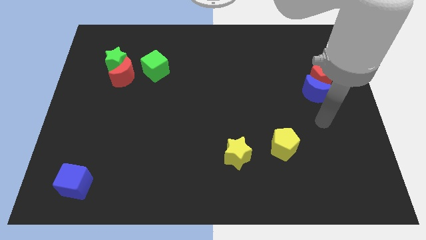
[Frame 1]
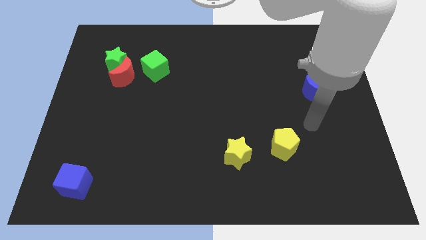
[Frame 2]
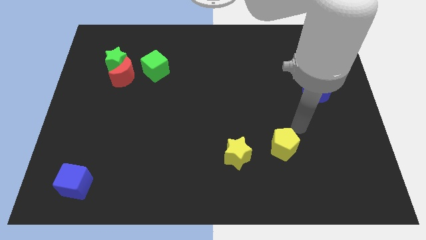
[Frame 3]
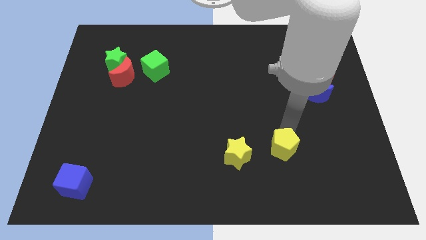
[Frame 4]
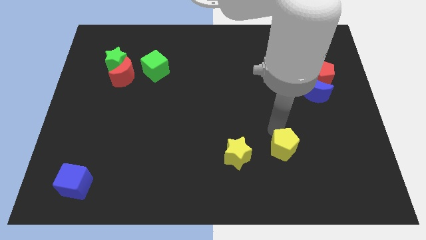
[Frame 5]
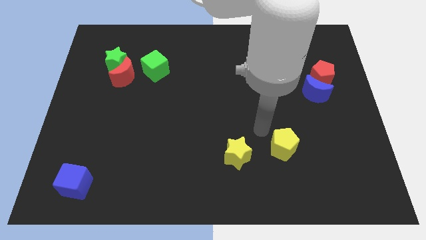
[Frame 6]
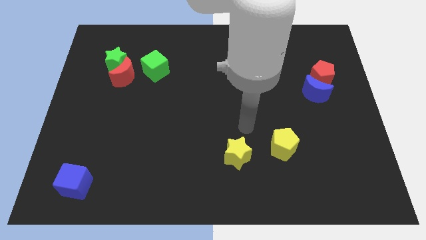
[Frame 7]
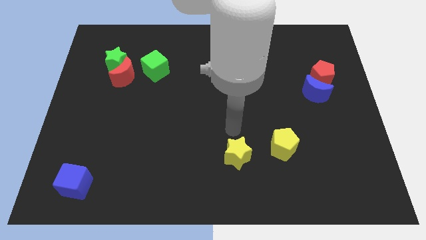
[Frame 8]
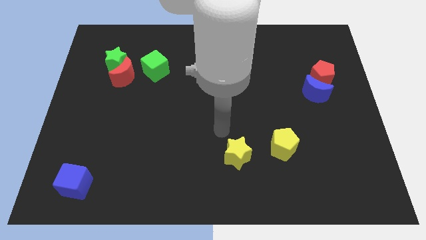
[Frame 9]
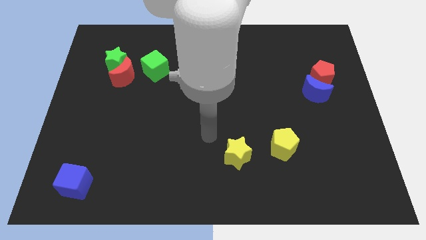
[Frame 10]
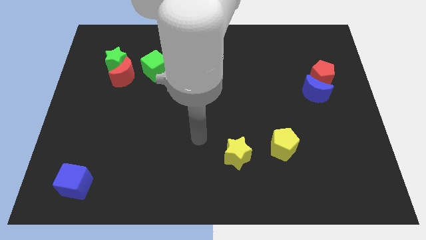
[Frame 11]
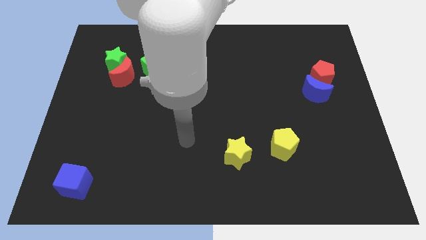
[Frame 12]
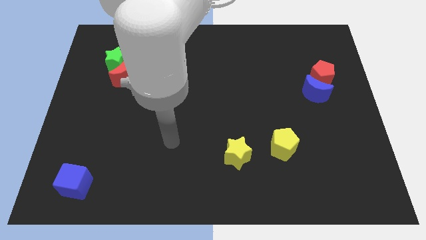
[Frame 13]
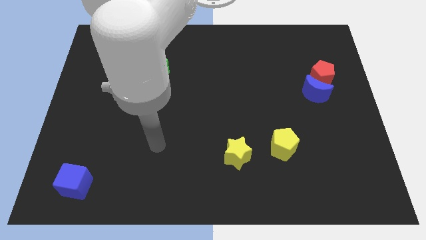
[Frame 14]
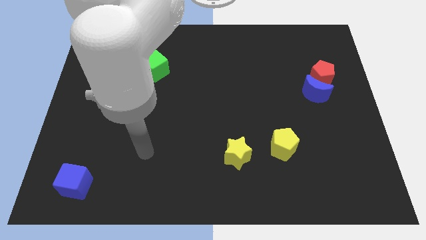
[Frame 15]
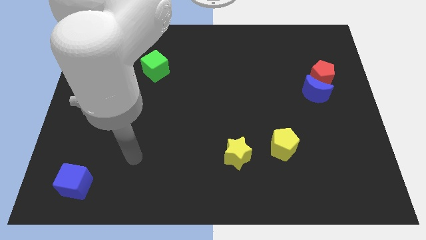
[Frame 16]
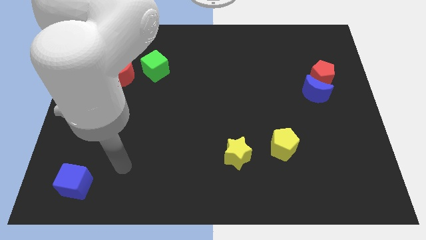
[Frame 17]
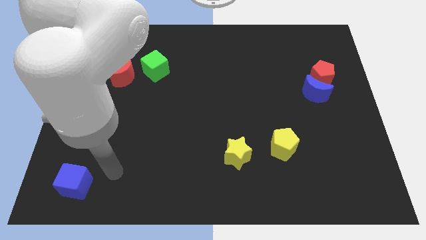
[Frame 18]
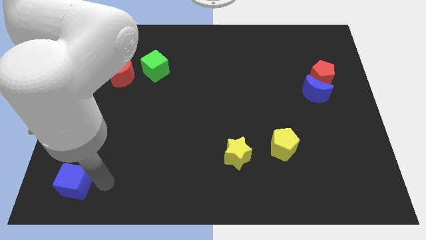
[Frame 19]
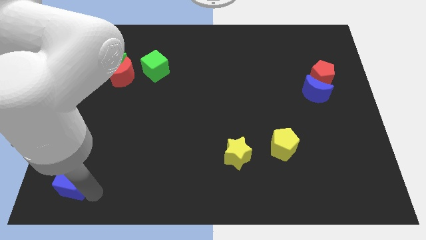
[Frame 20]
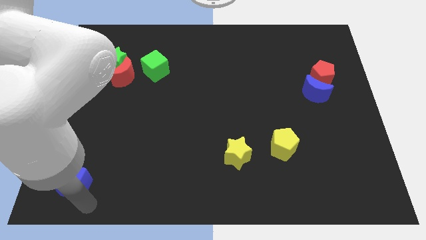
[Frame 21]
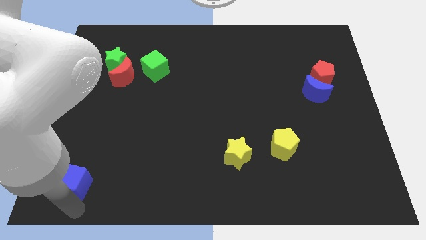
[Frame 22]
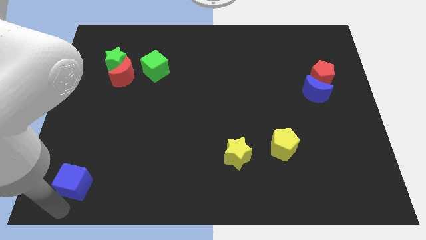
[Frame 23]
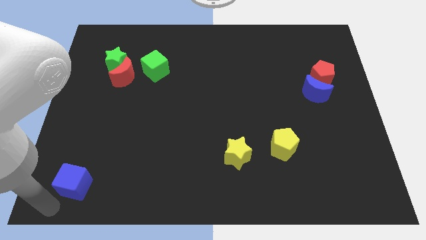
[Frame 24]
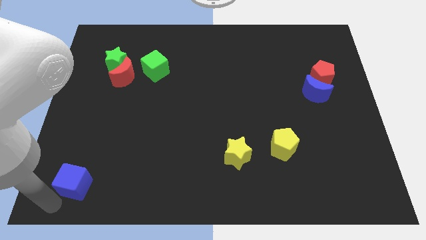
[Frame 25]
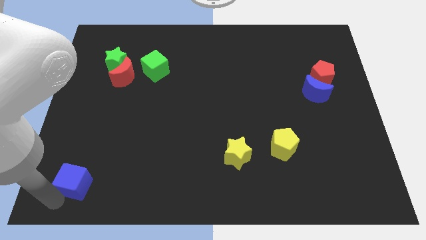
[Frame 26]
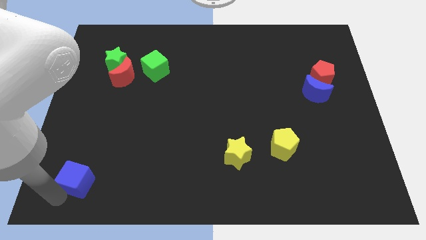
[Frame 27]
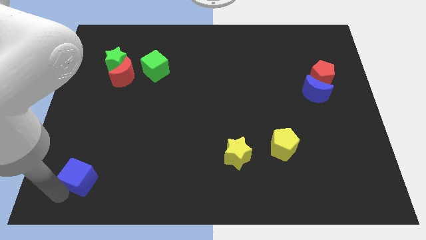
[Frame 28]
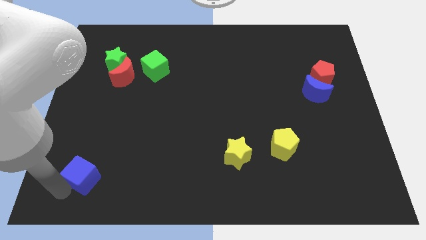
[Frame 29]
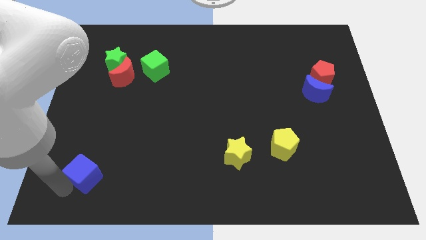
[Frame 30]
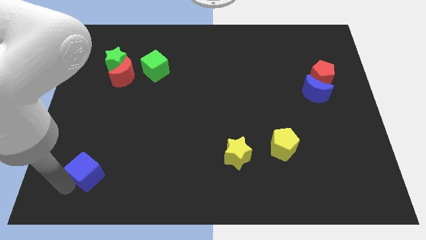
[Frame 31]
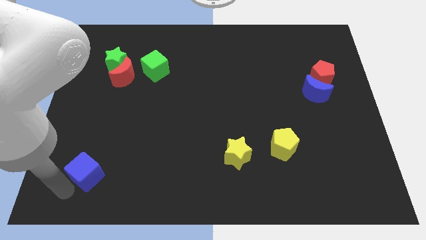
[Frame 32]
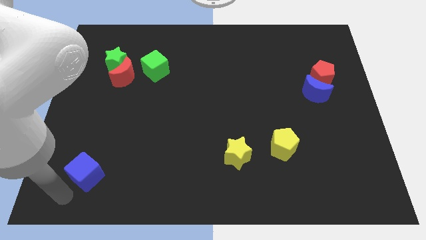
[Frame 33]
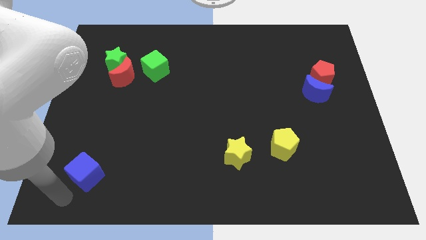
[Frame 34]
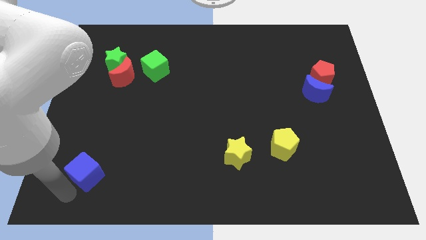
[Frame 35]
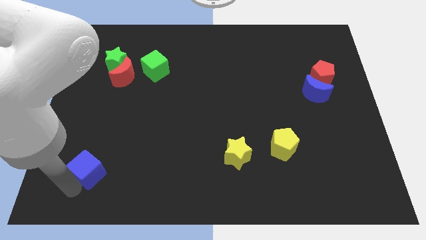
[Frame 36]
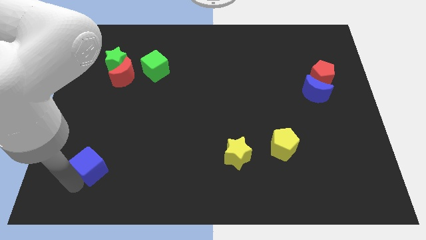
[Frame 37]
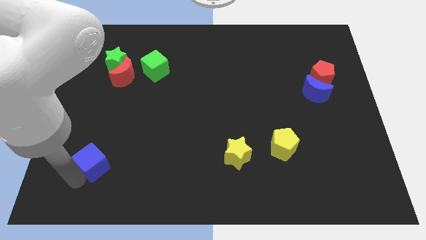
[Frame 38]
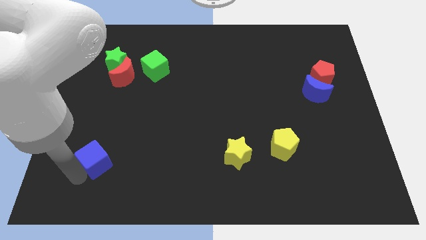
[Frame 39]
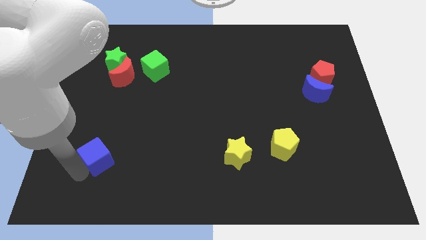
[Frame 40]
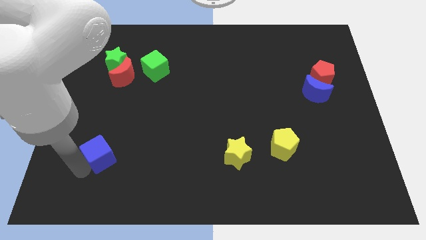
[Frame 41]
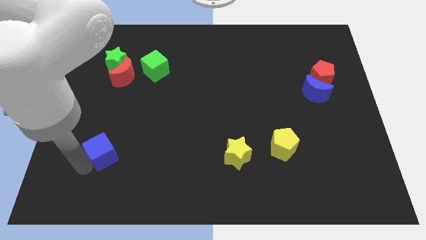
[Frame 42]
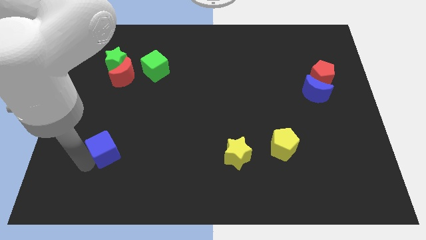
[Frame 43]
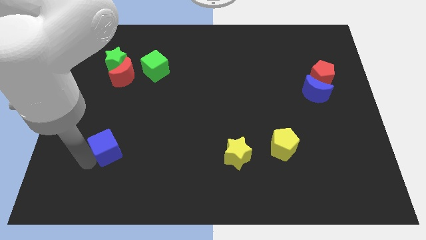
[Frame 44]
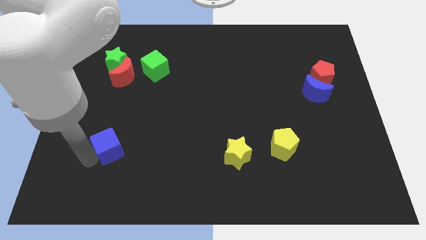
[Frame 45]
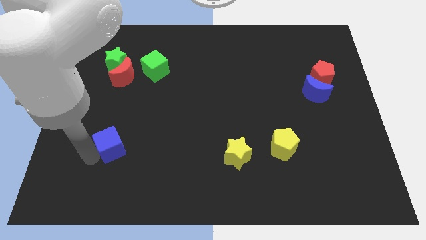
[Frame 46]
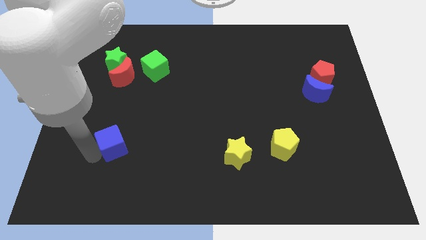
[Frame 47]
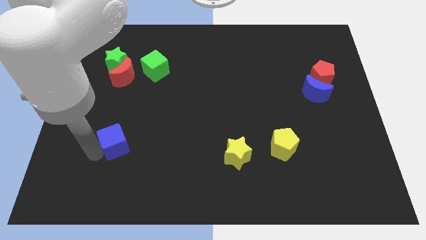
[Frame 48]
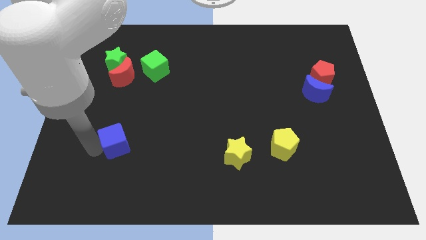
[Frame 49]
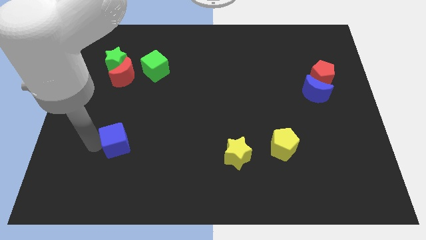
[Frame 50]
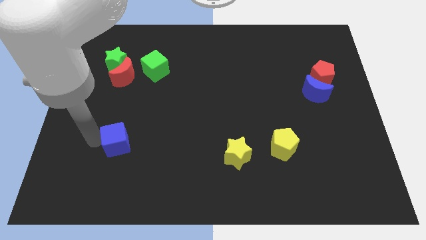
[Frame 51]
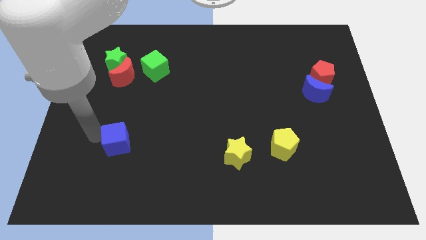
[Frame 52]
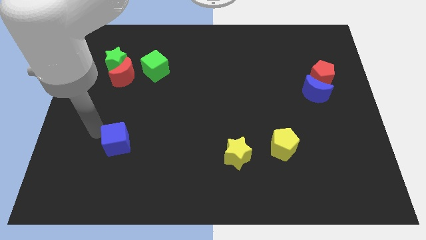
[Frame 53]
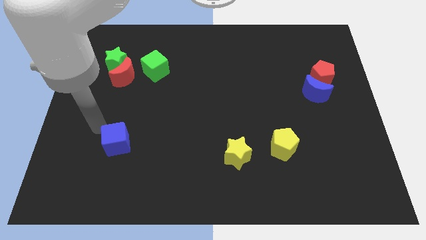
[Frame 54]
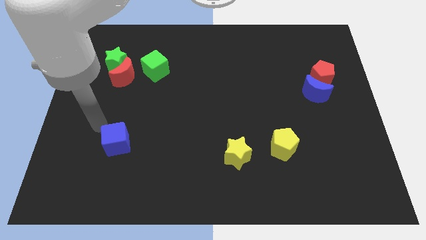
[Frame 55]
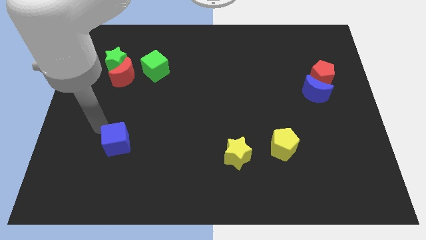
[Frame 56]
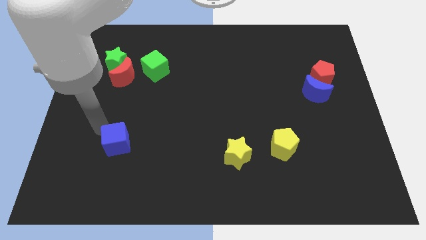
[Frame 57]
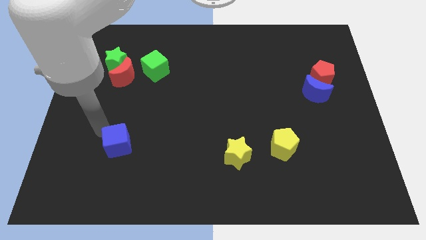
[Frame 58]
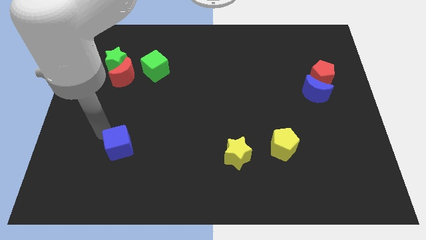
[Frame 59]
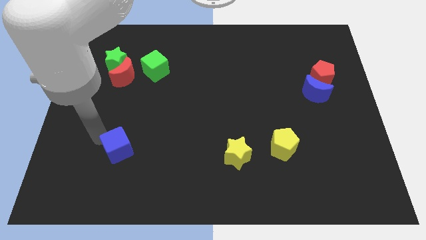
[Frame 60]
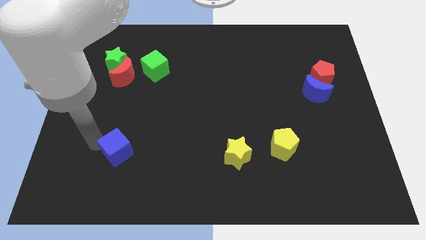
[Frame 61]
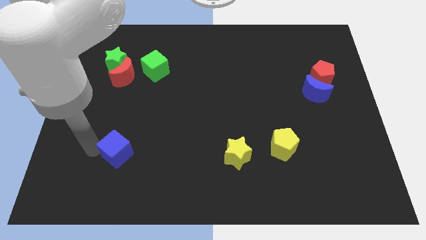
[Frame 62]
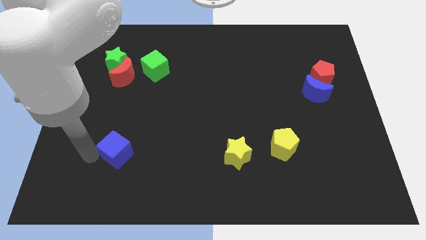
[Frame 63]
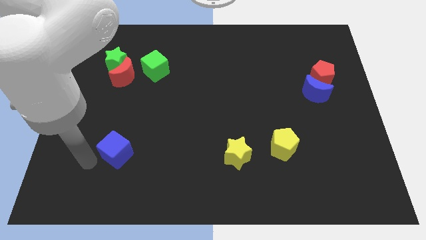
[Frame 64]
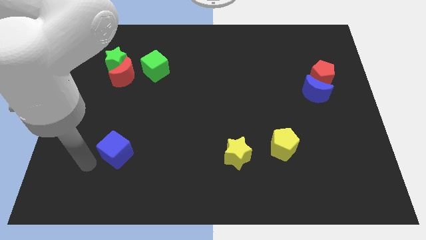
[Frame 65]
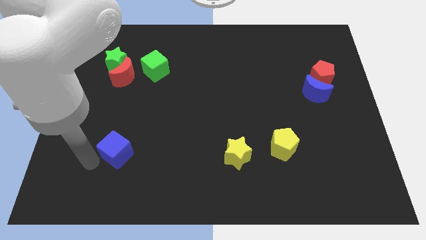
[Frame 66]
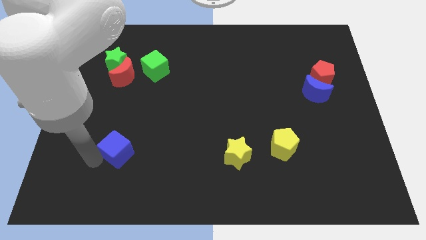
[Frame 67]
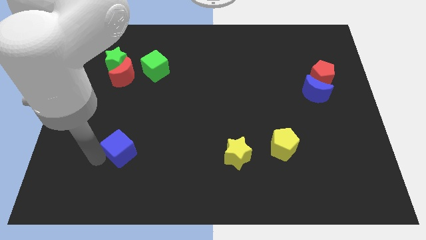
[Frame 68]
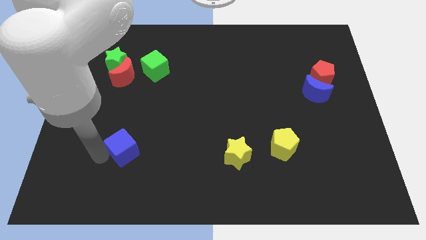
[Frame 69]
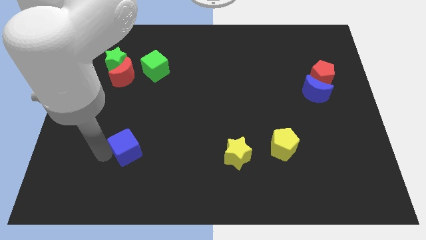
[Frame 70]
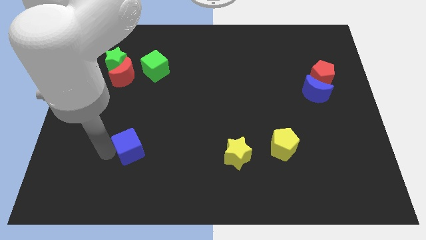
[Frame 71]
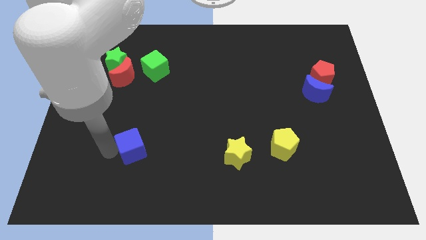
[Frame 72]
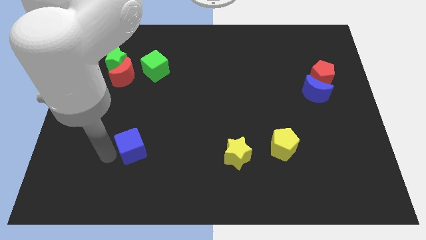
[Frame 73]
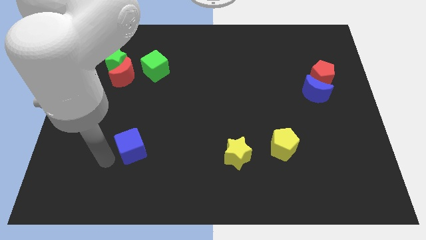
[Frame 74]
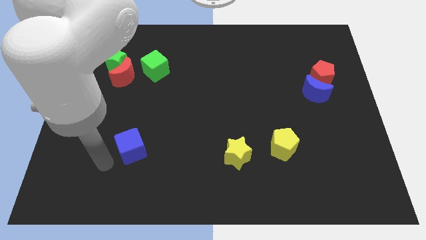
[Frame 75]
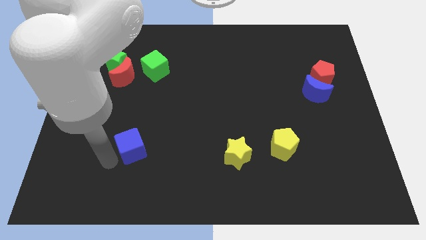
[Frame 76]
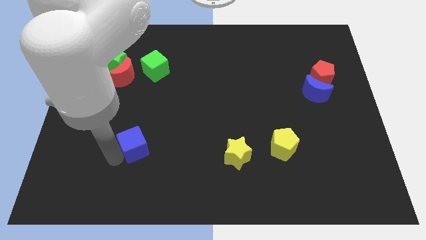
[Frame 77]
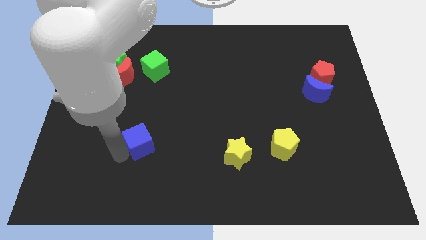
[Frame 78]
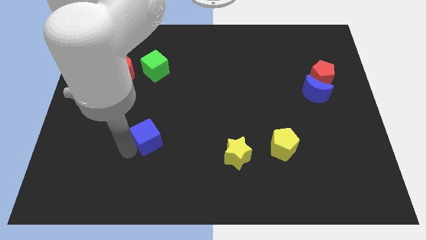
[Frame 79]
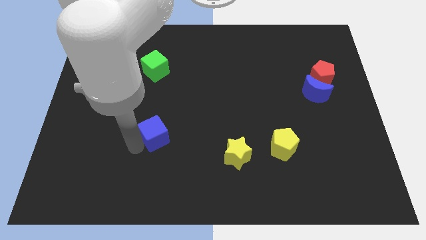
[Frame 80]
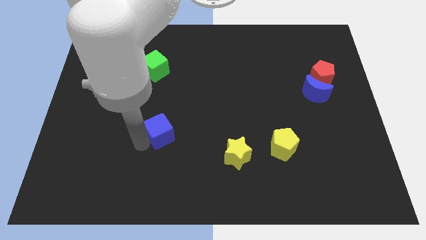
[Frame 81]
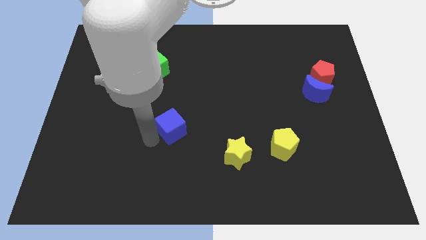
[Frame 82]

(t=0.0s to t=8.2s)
put the blue cube to the middle of the board
